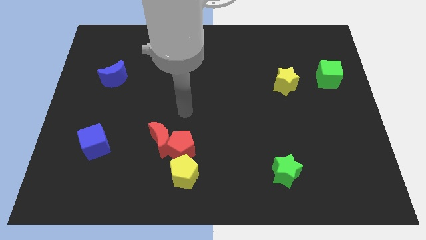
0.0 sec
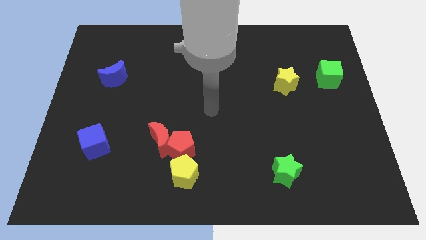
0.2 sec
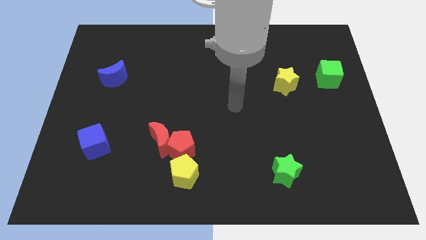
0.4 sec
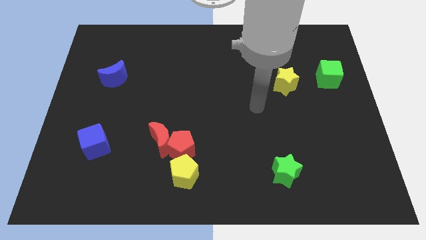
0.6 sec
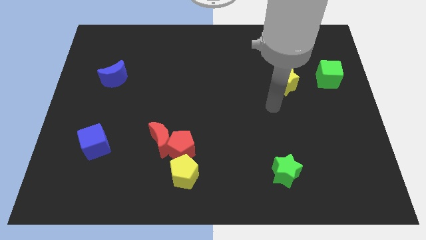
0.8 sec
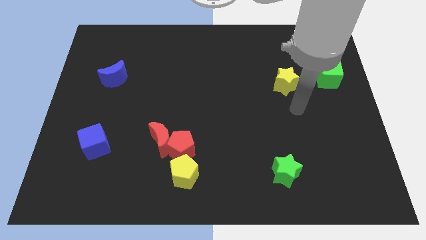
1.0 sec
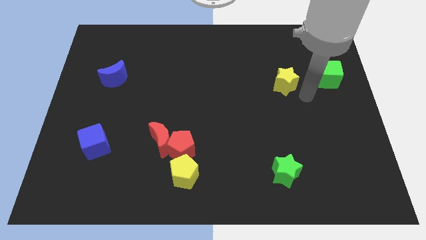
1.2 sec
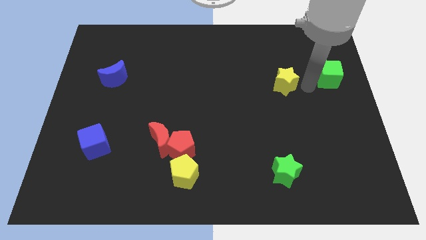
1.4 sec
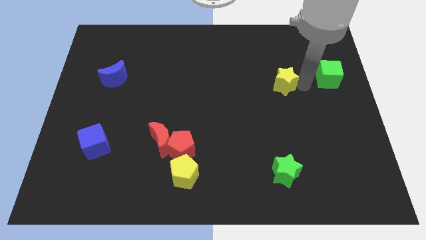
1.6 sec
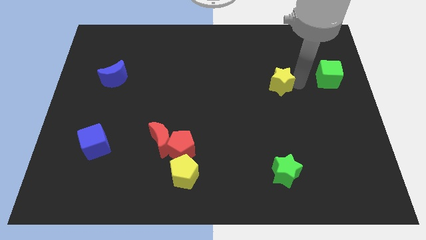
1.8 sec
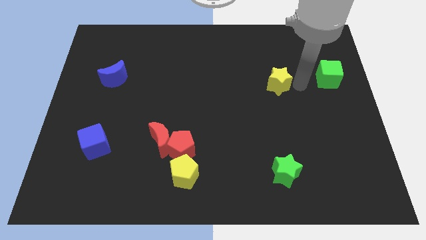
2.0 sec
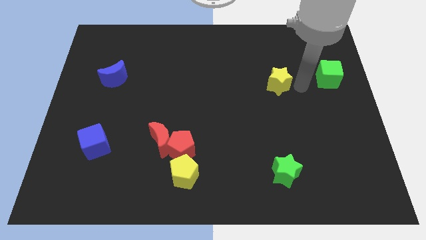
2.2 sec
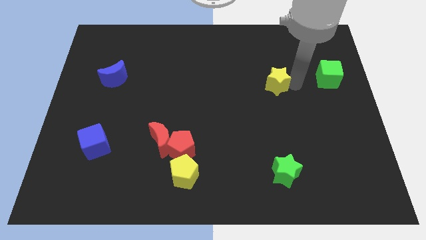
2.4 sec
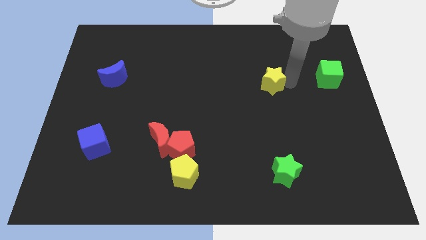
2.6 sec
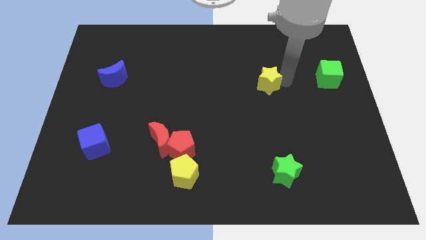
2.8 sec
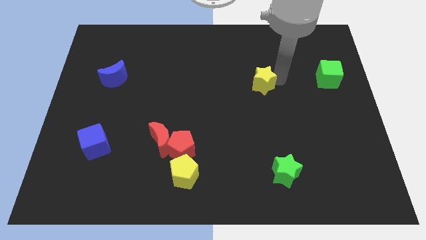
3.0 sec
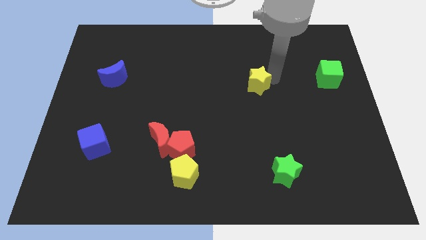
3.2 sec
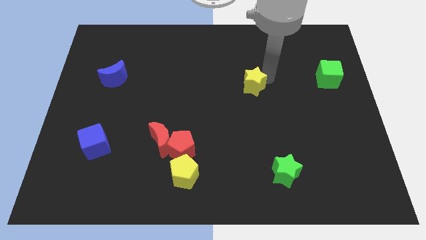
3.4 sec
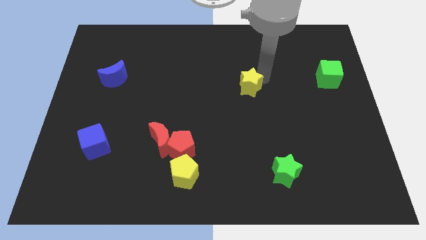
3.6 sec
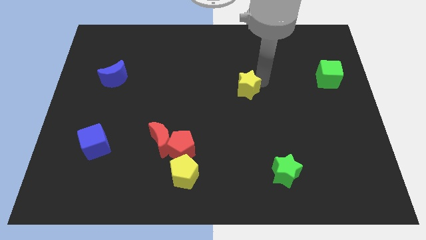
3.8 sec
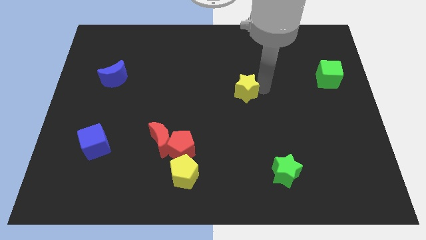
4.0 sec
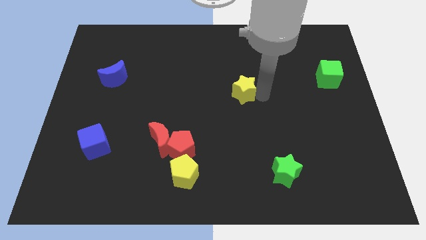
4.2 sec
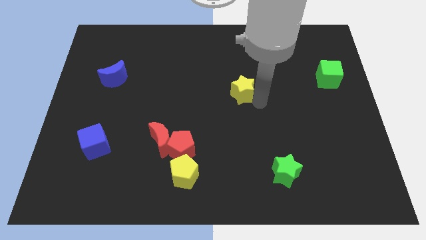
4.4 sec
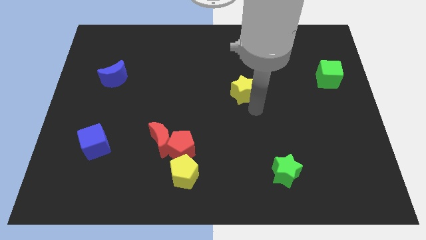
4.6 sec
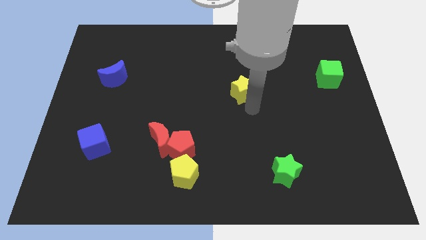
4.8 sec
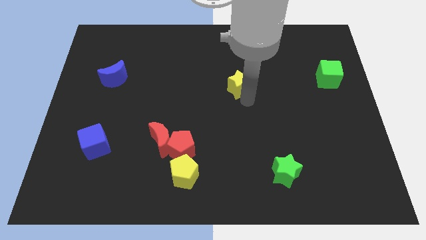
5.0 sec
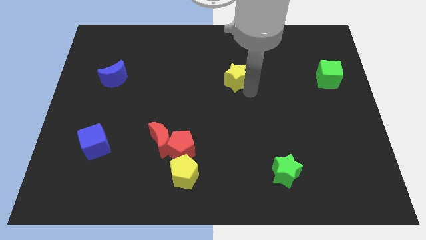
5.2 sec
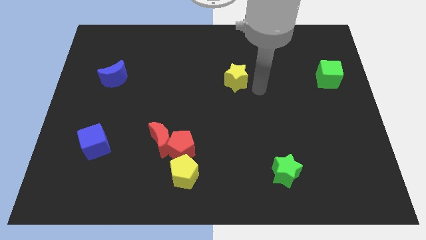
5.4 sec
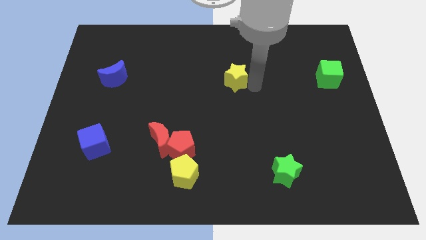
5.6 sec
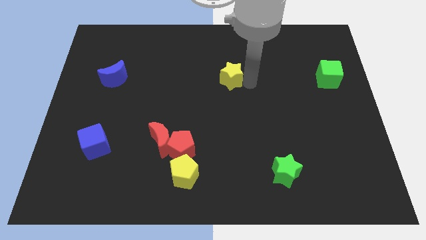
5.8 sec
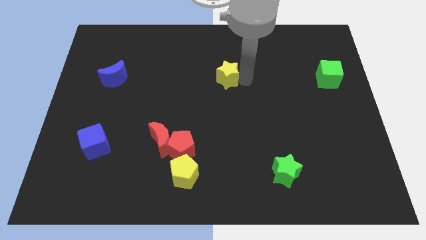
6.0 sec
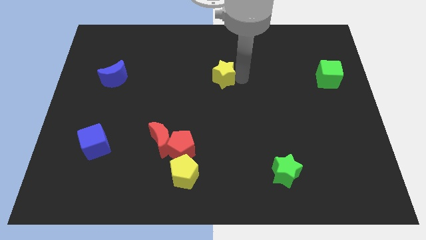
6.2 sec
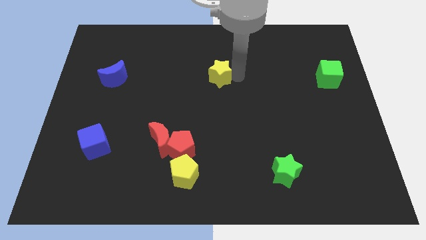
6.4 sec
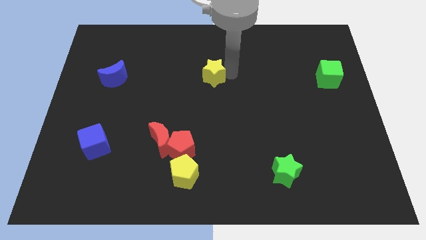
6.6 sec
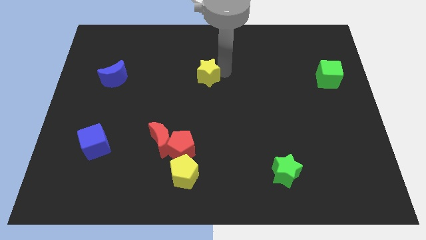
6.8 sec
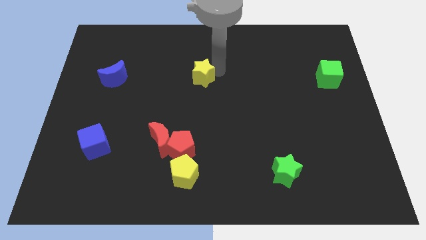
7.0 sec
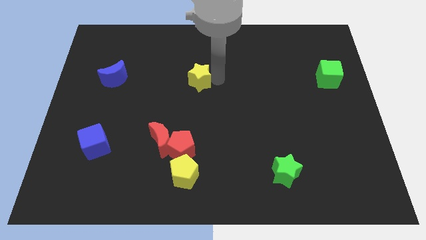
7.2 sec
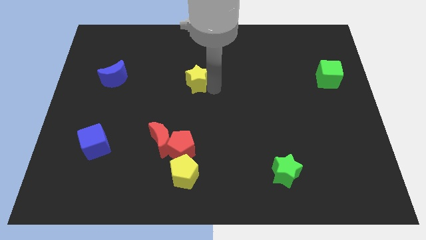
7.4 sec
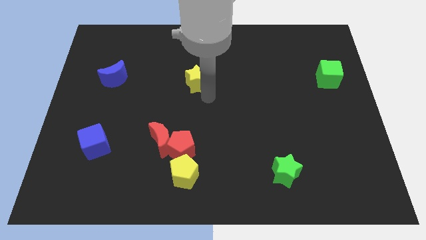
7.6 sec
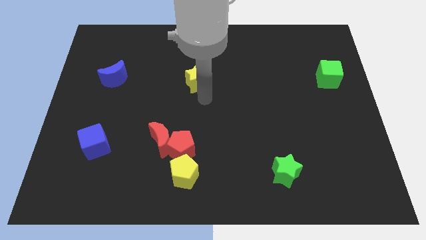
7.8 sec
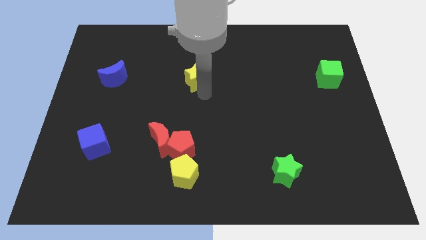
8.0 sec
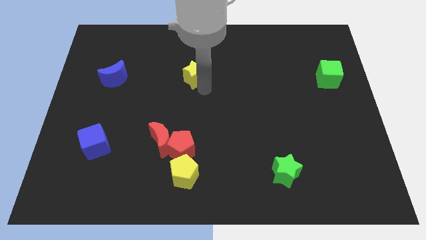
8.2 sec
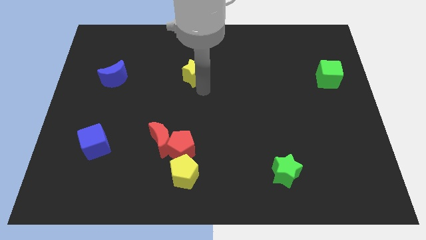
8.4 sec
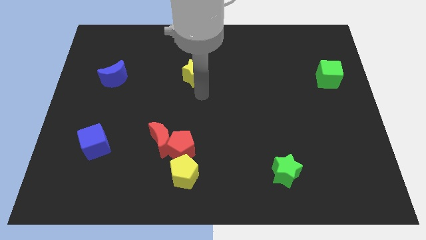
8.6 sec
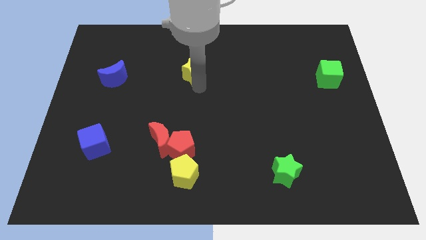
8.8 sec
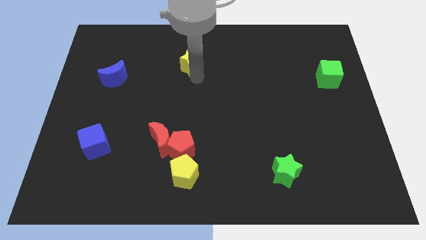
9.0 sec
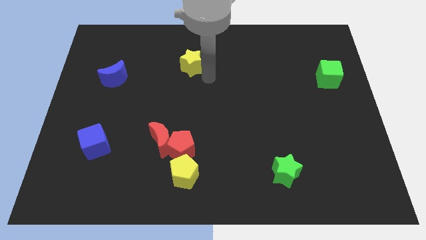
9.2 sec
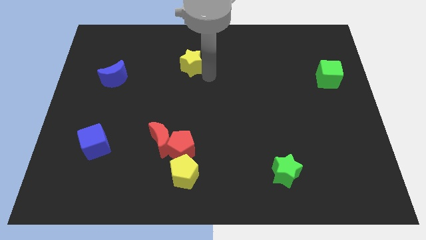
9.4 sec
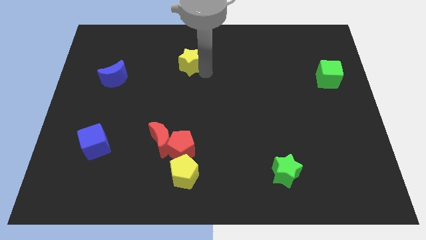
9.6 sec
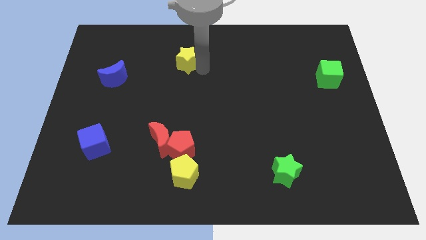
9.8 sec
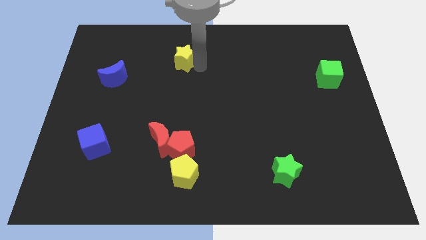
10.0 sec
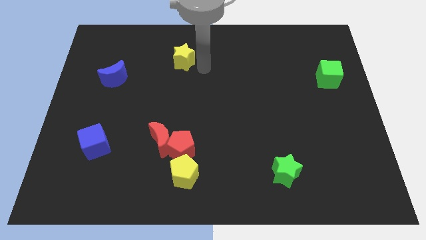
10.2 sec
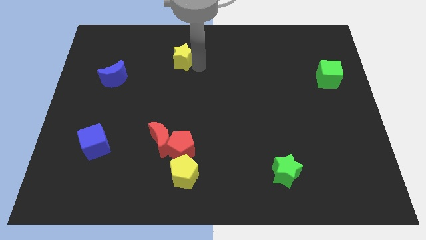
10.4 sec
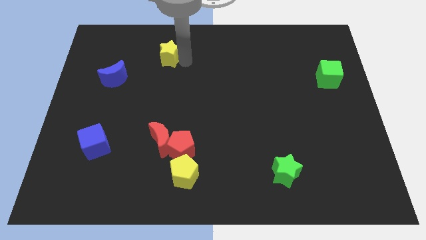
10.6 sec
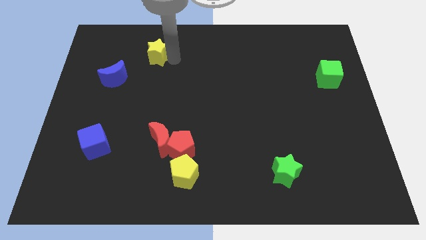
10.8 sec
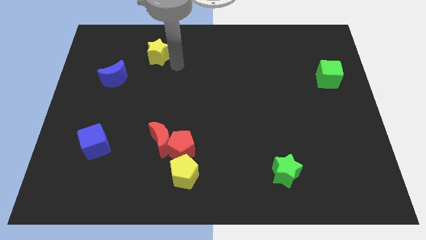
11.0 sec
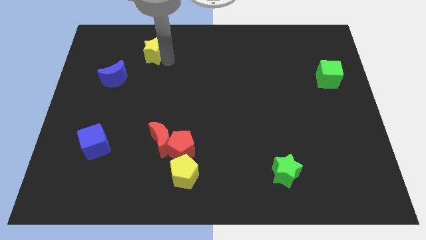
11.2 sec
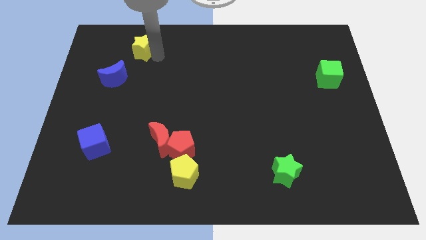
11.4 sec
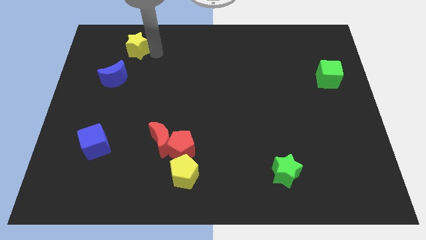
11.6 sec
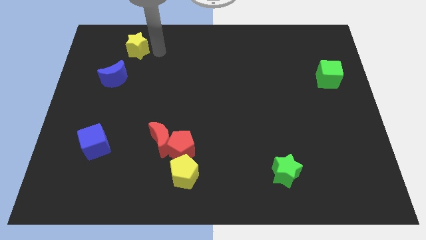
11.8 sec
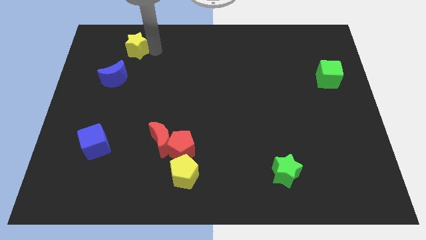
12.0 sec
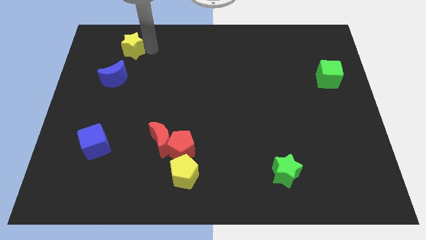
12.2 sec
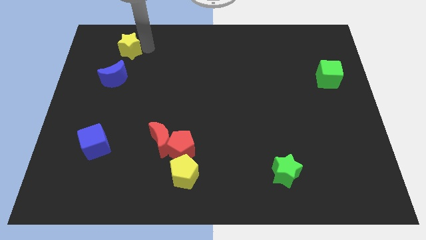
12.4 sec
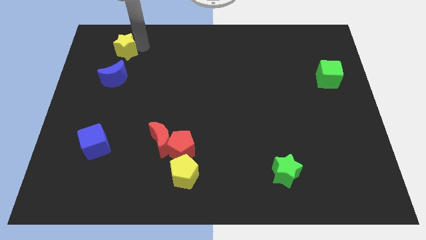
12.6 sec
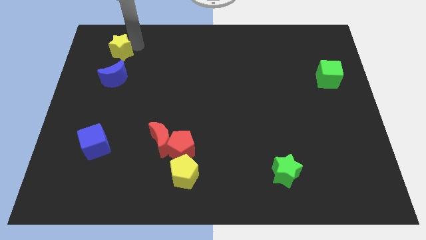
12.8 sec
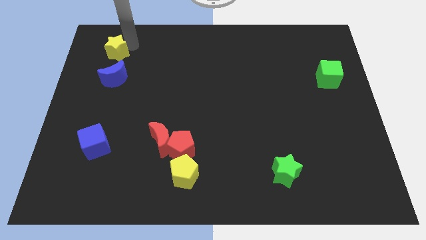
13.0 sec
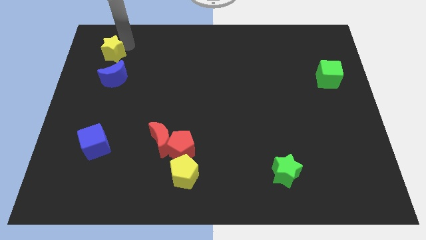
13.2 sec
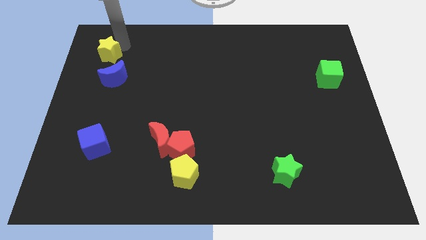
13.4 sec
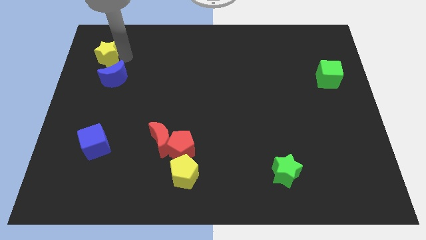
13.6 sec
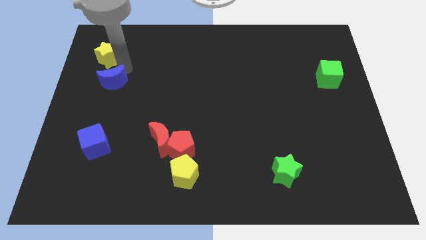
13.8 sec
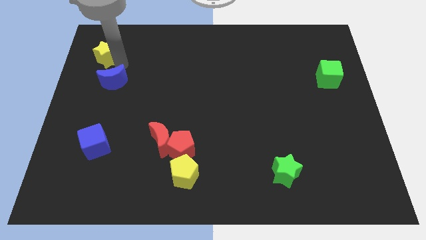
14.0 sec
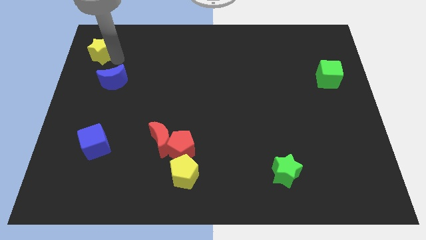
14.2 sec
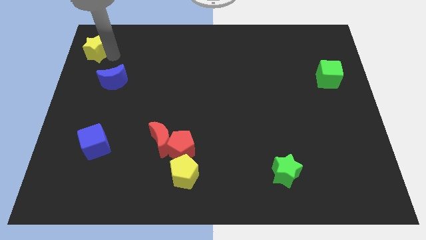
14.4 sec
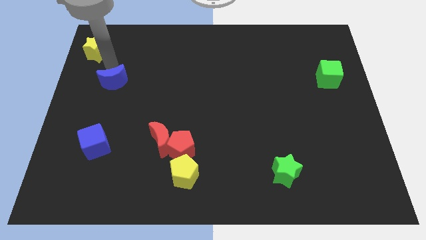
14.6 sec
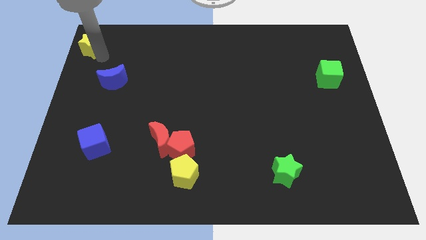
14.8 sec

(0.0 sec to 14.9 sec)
put the yellow star to the top left corner
